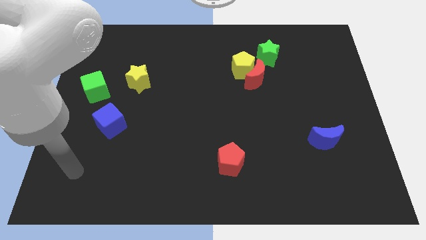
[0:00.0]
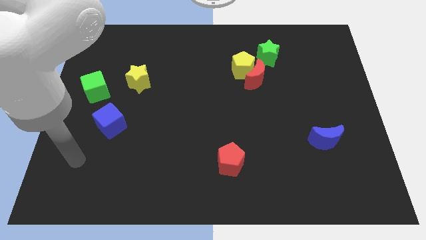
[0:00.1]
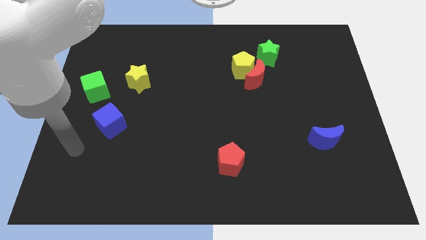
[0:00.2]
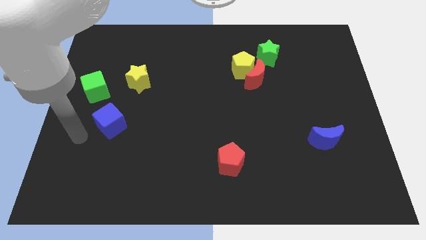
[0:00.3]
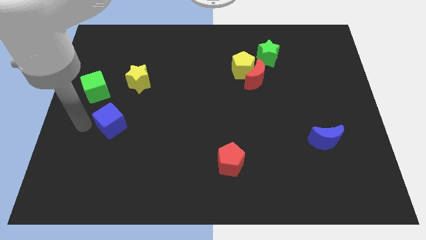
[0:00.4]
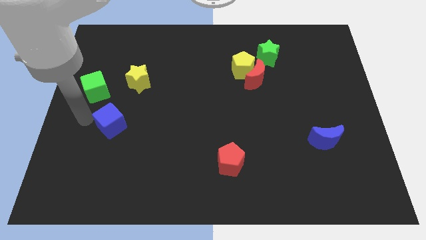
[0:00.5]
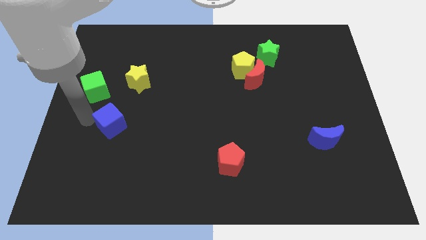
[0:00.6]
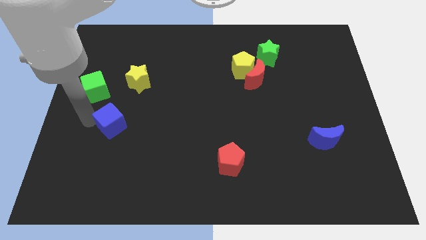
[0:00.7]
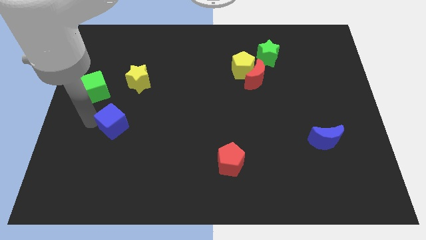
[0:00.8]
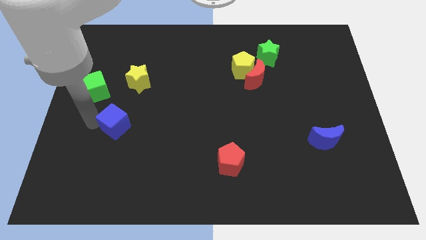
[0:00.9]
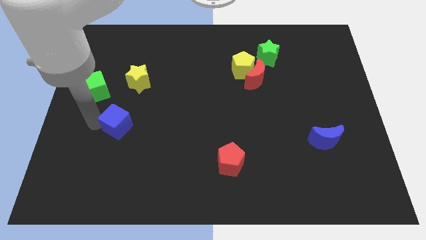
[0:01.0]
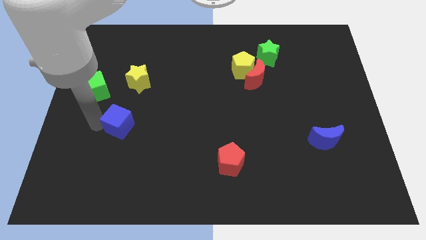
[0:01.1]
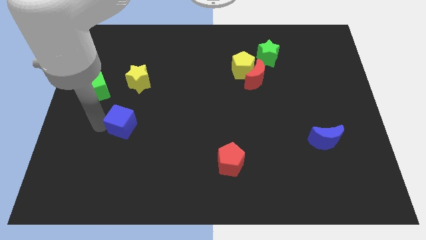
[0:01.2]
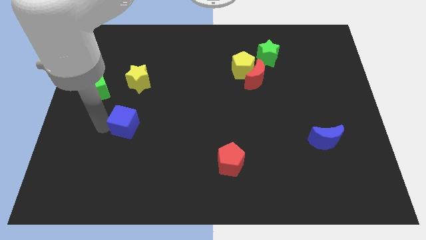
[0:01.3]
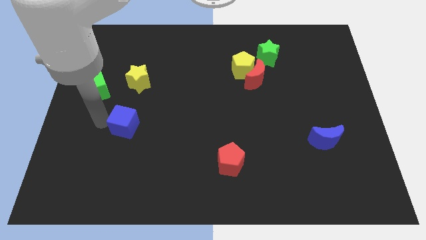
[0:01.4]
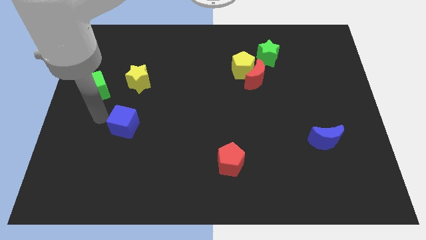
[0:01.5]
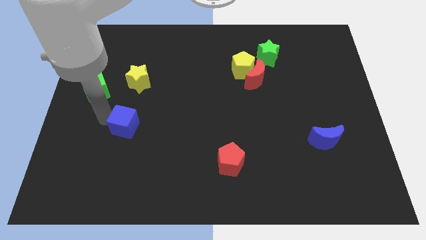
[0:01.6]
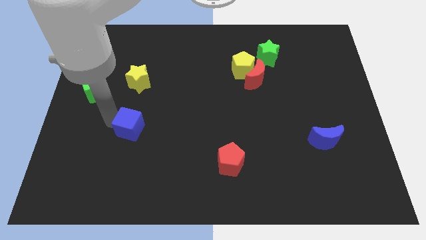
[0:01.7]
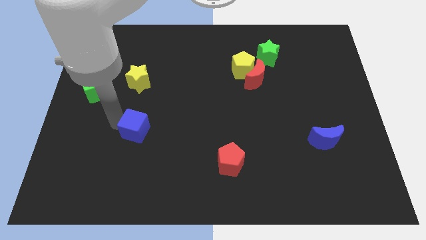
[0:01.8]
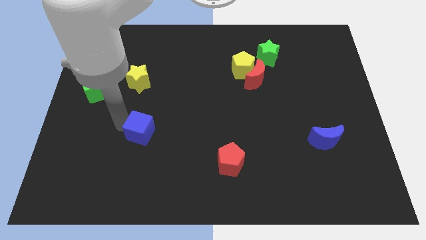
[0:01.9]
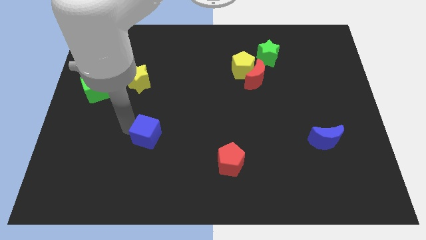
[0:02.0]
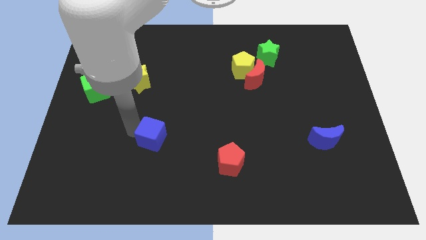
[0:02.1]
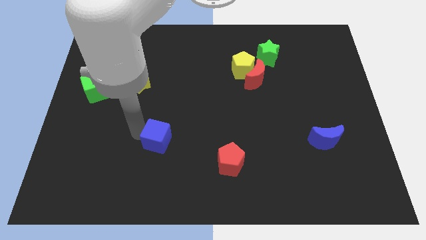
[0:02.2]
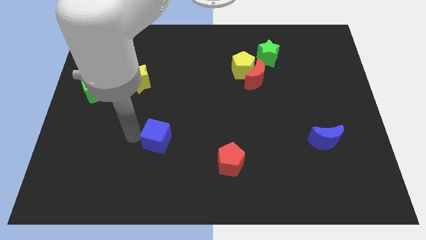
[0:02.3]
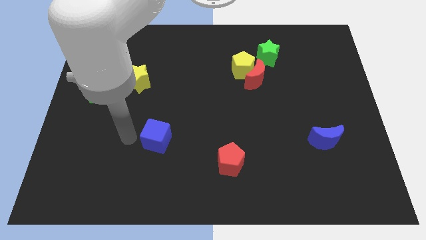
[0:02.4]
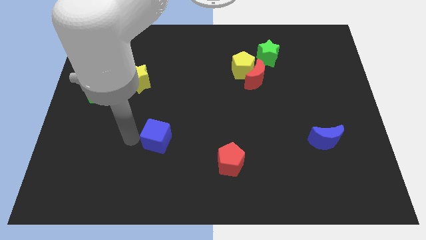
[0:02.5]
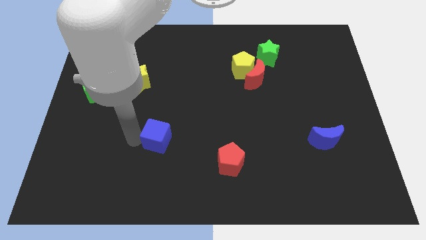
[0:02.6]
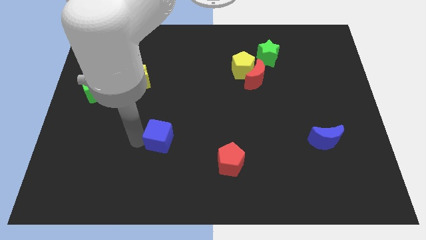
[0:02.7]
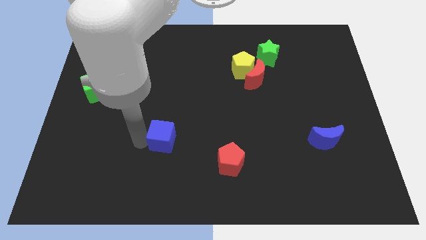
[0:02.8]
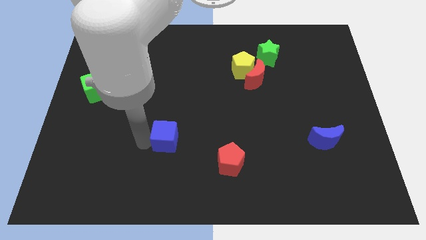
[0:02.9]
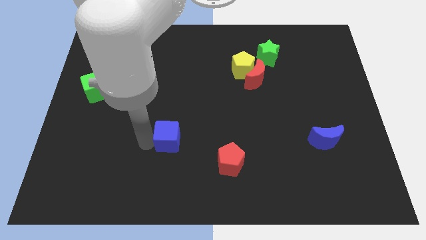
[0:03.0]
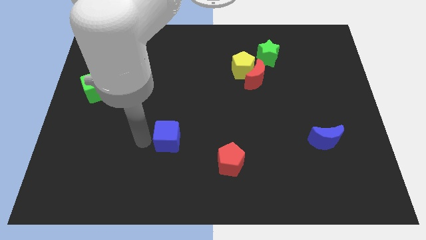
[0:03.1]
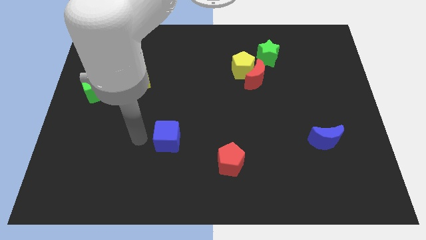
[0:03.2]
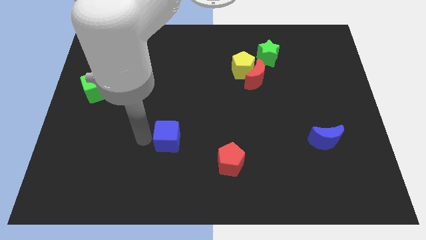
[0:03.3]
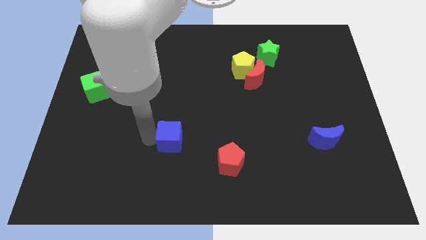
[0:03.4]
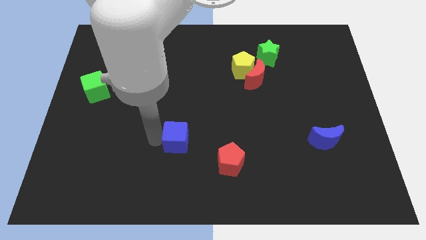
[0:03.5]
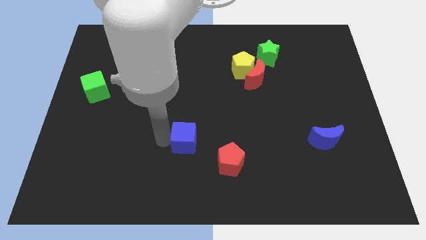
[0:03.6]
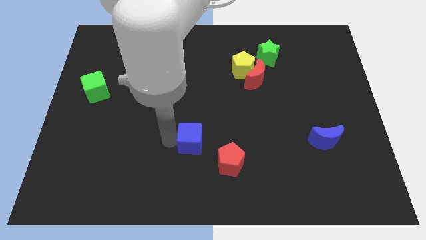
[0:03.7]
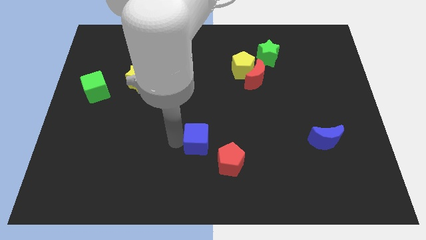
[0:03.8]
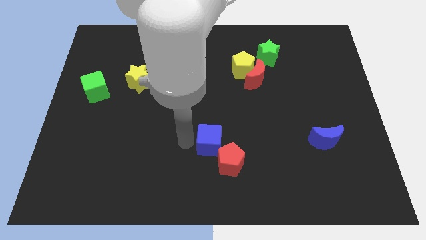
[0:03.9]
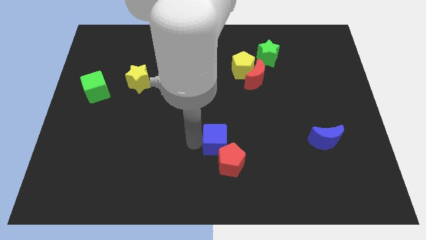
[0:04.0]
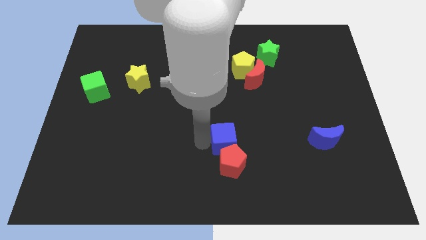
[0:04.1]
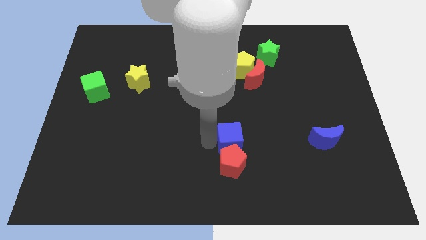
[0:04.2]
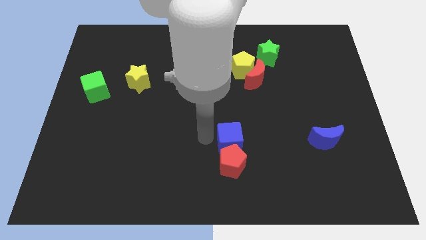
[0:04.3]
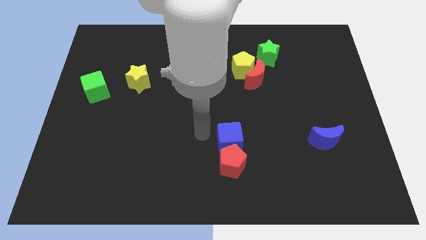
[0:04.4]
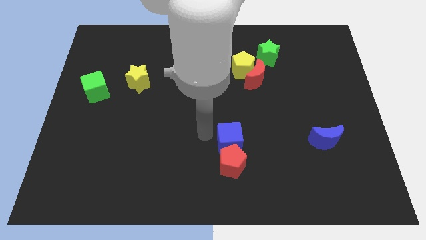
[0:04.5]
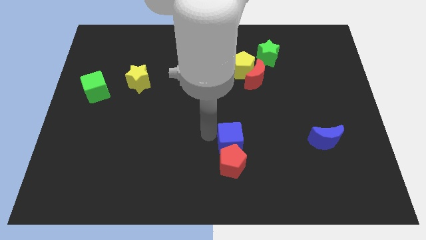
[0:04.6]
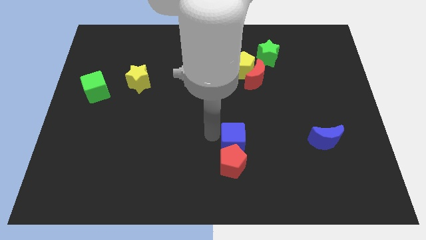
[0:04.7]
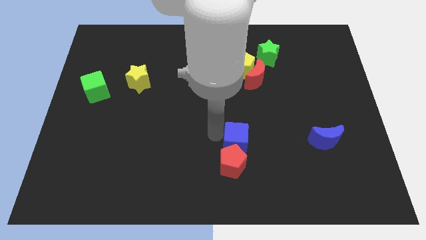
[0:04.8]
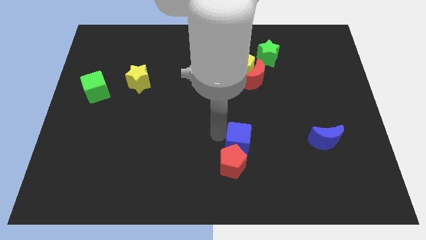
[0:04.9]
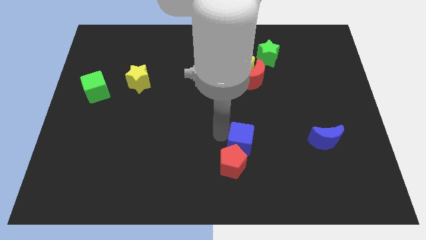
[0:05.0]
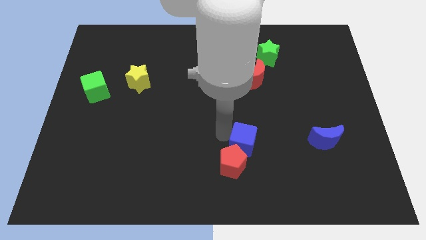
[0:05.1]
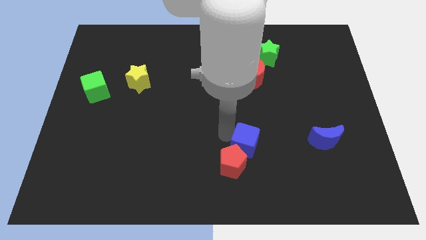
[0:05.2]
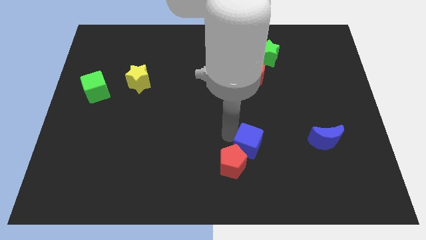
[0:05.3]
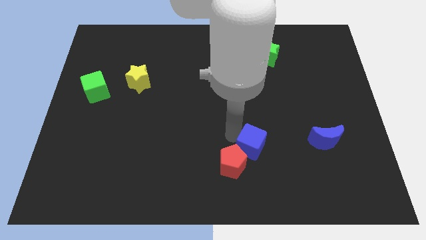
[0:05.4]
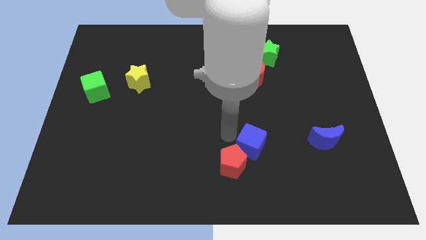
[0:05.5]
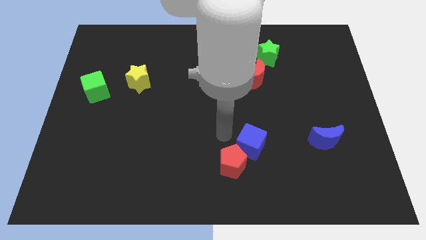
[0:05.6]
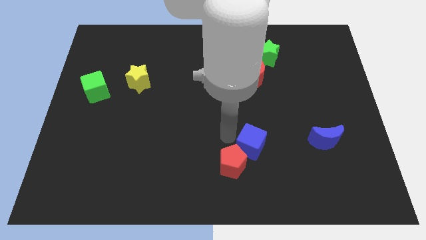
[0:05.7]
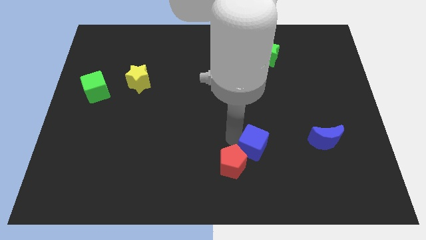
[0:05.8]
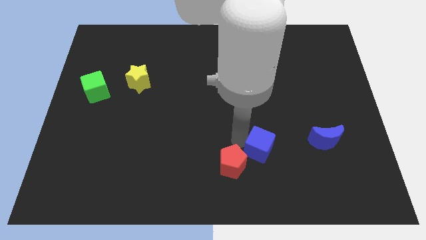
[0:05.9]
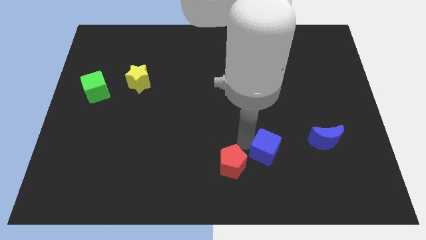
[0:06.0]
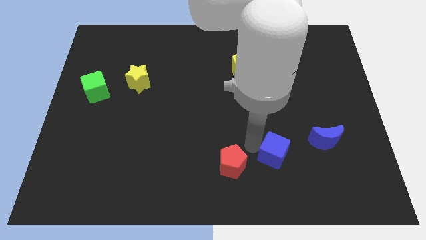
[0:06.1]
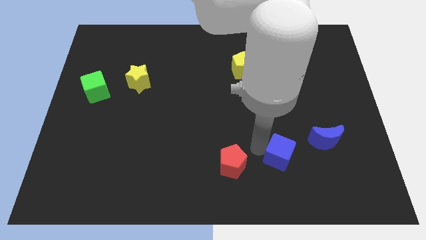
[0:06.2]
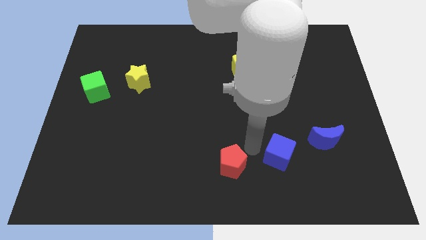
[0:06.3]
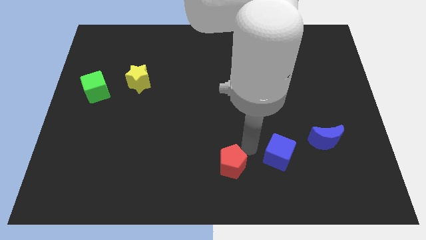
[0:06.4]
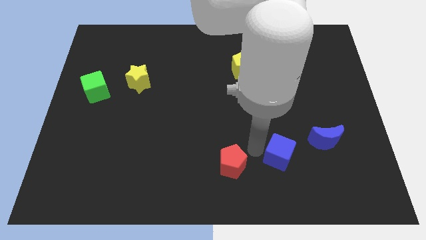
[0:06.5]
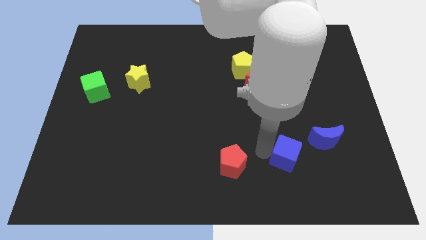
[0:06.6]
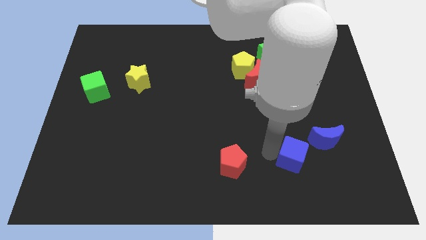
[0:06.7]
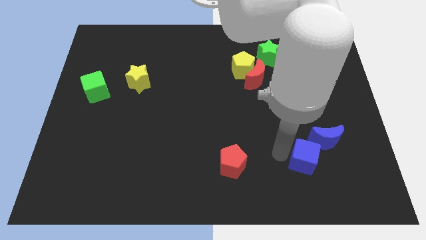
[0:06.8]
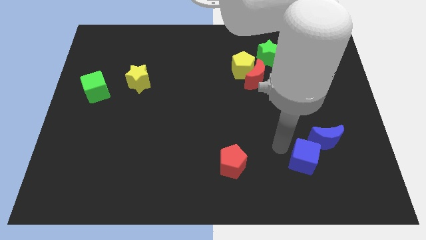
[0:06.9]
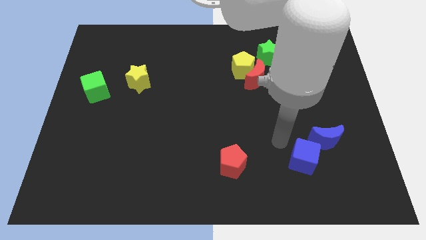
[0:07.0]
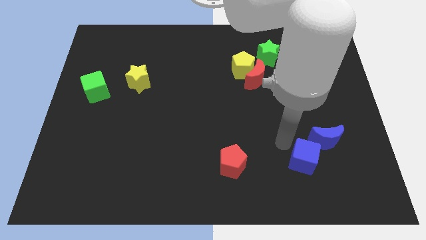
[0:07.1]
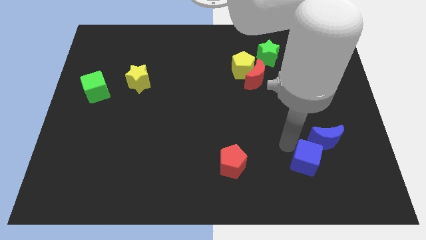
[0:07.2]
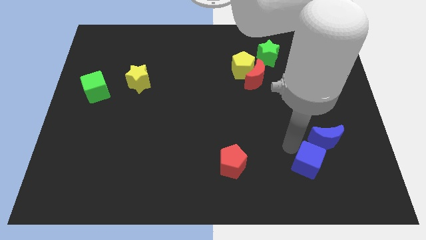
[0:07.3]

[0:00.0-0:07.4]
put the blue cube to the bottom of the blue moon
